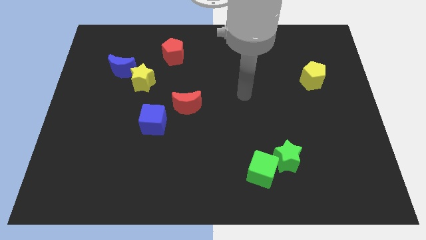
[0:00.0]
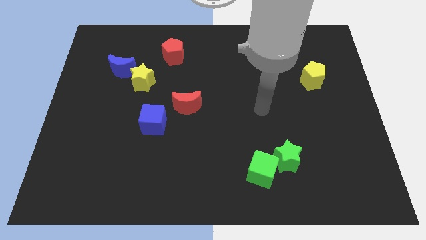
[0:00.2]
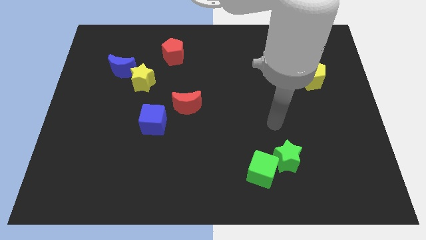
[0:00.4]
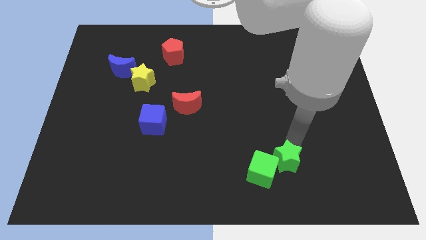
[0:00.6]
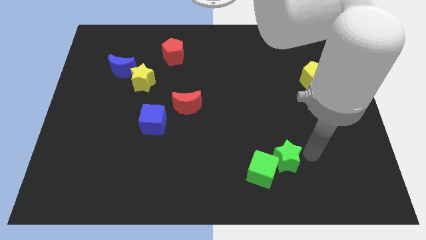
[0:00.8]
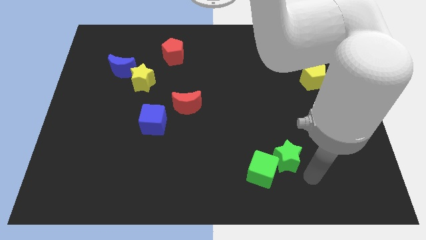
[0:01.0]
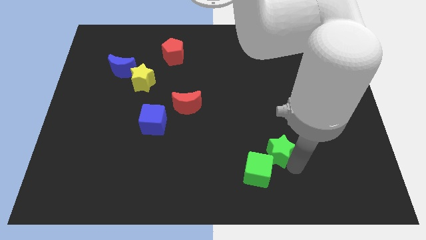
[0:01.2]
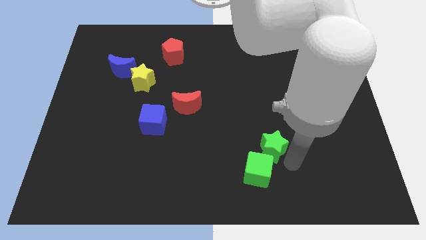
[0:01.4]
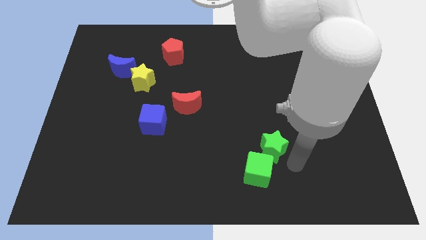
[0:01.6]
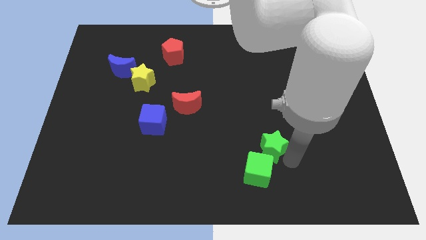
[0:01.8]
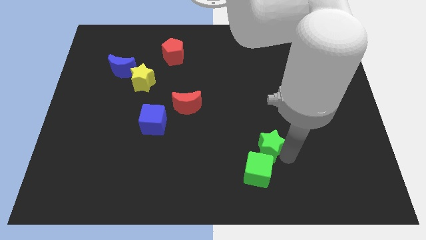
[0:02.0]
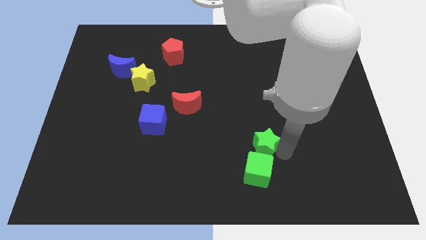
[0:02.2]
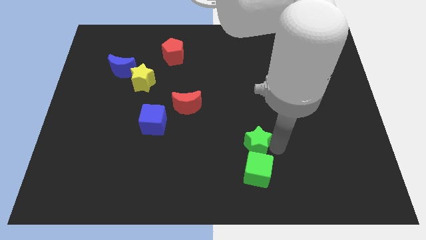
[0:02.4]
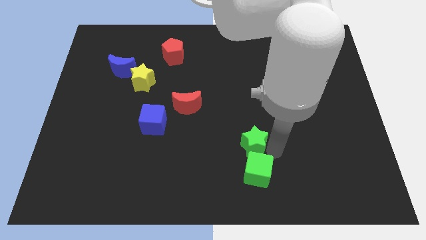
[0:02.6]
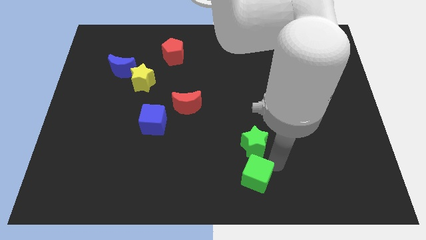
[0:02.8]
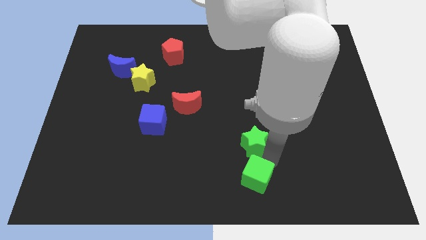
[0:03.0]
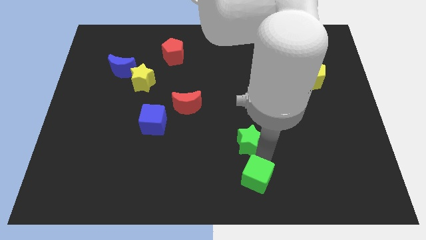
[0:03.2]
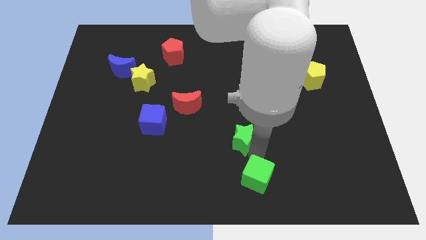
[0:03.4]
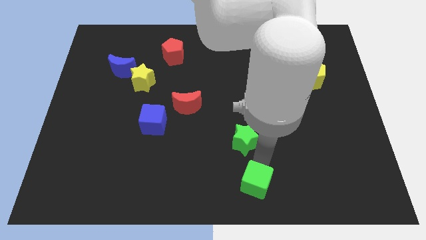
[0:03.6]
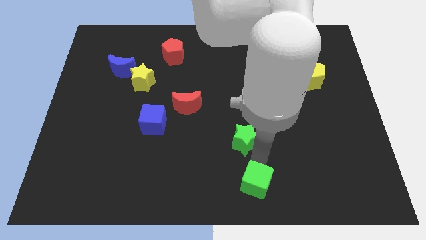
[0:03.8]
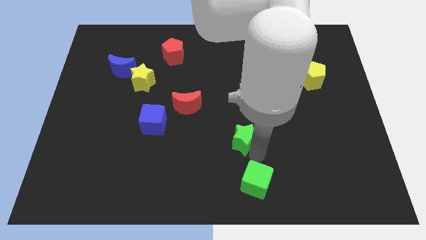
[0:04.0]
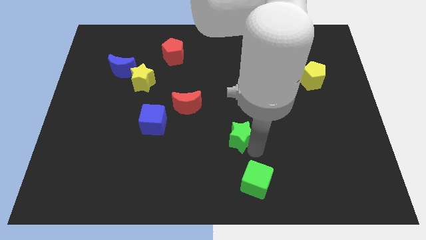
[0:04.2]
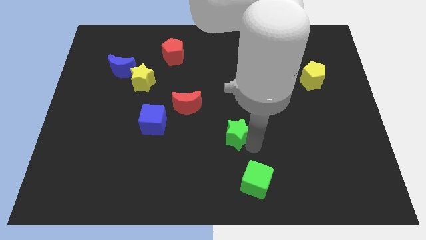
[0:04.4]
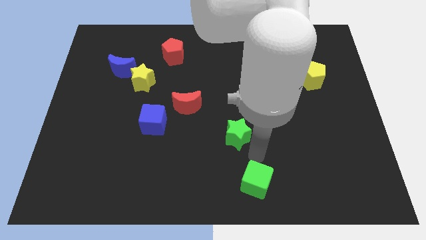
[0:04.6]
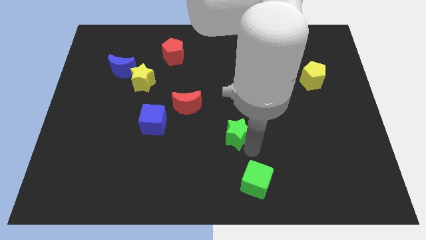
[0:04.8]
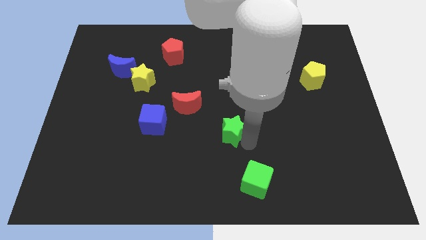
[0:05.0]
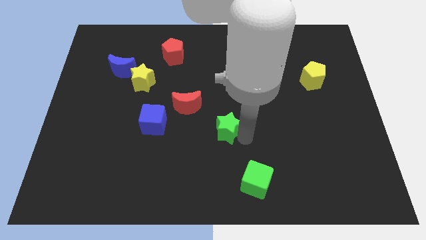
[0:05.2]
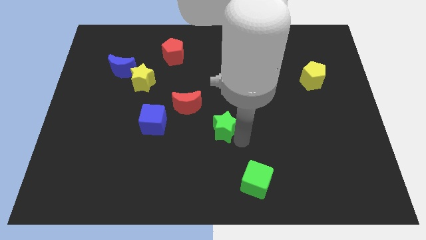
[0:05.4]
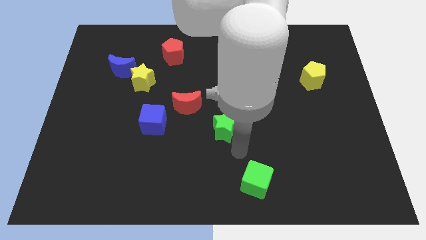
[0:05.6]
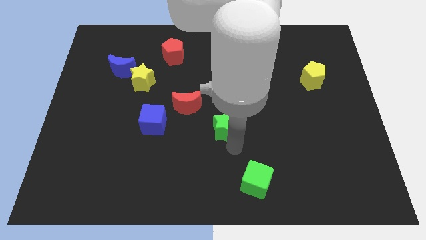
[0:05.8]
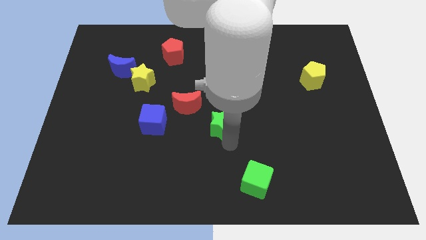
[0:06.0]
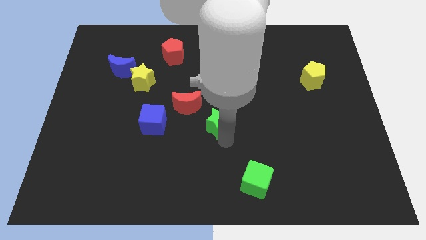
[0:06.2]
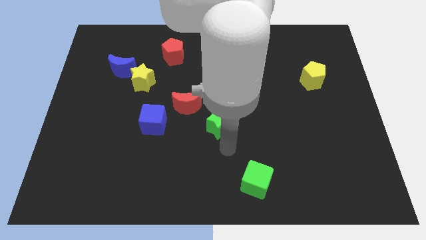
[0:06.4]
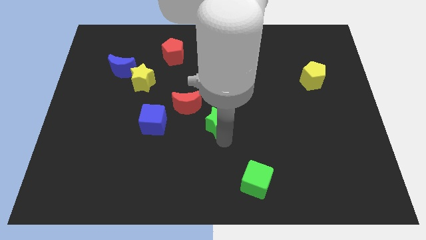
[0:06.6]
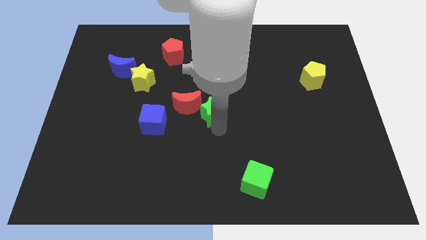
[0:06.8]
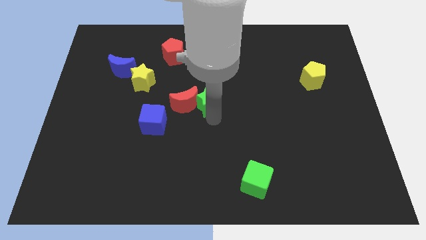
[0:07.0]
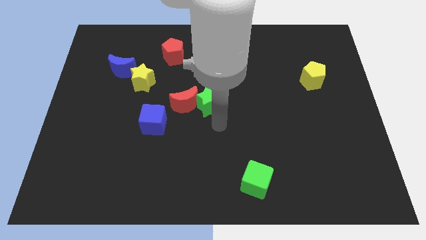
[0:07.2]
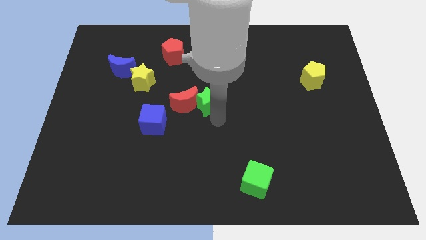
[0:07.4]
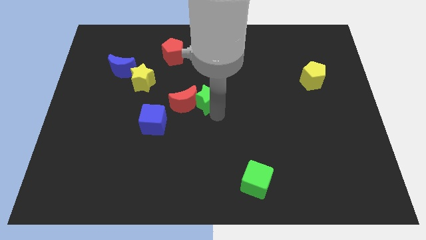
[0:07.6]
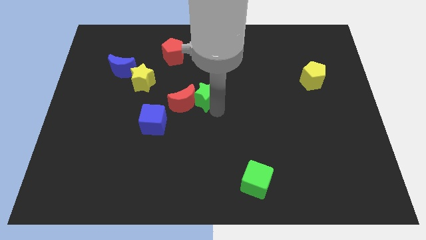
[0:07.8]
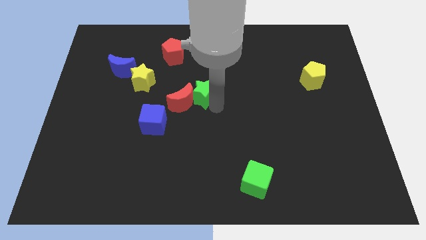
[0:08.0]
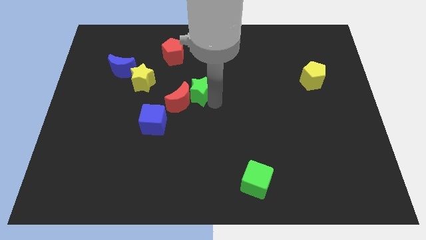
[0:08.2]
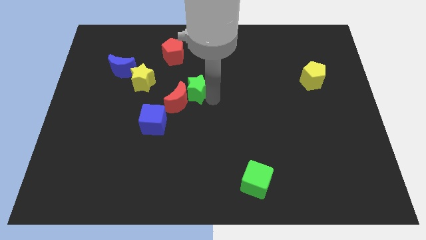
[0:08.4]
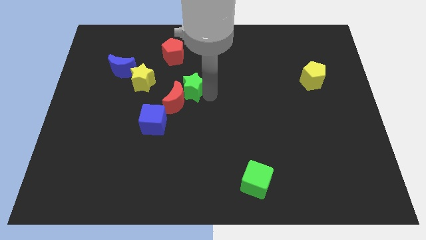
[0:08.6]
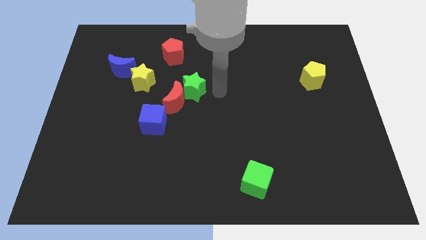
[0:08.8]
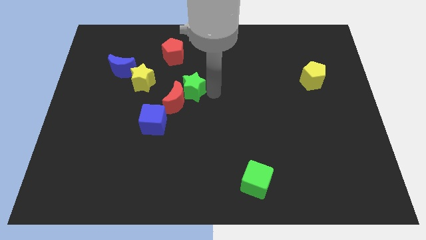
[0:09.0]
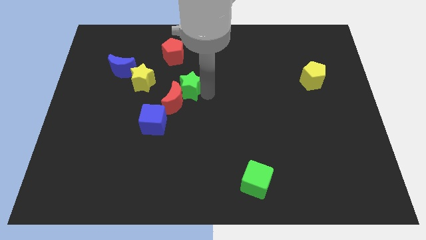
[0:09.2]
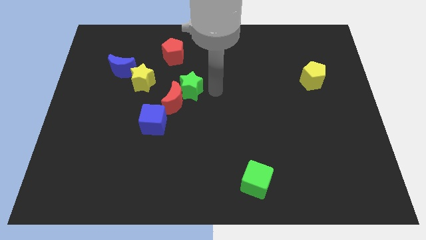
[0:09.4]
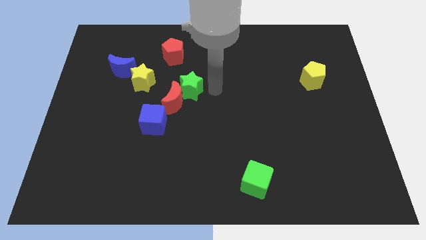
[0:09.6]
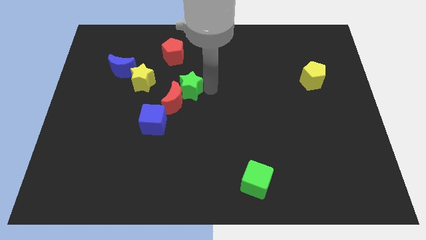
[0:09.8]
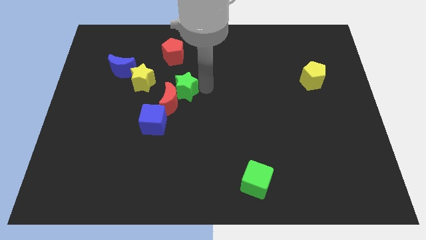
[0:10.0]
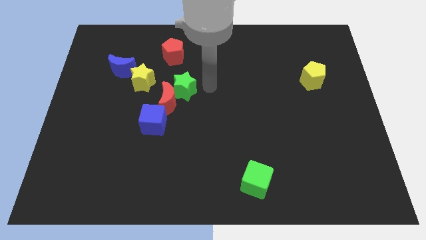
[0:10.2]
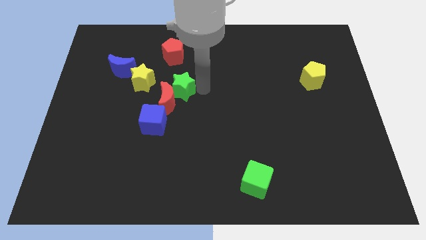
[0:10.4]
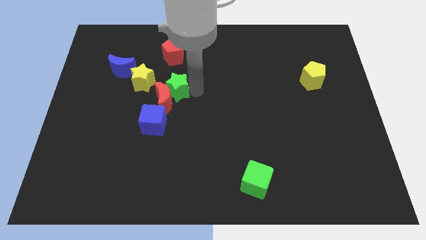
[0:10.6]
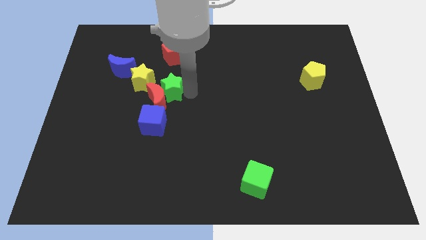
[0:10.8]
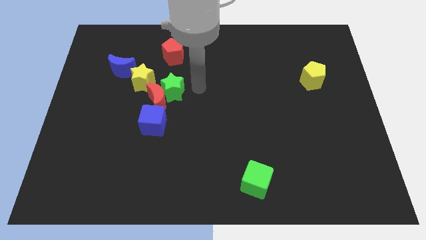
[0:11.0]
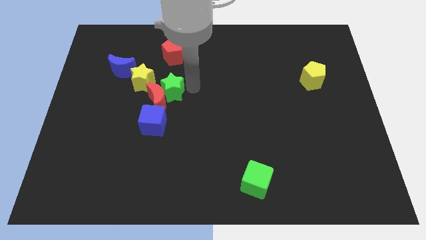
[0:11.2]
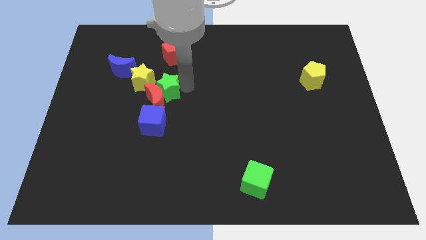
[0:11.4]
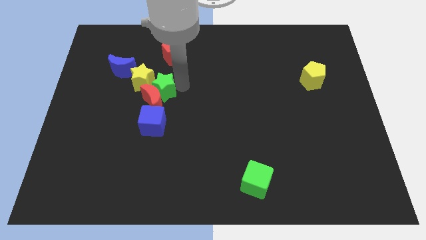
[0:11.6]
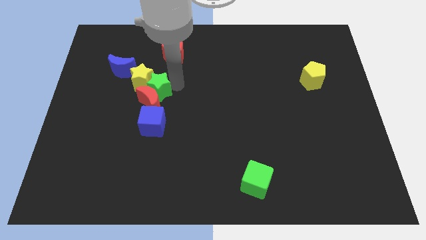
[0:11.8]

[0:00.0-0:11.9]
move the green star diagonally down and to the right of the blue moon

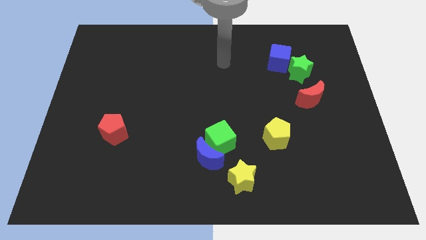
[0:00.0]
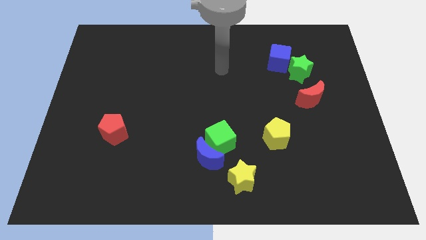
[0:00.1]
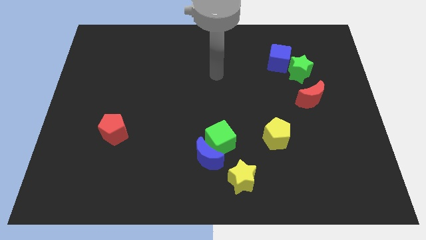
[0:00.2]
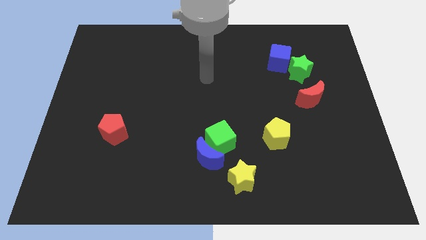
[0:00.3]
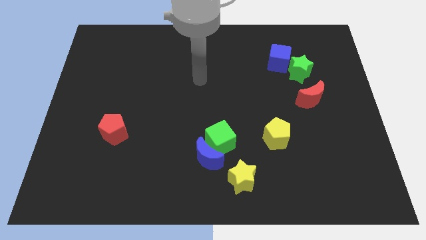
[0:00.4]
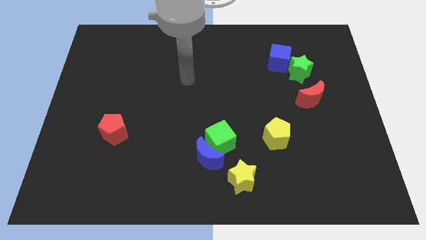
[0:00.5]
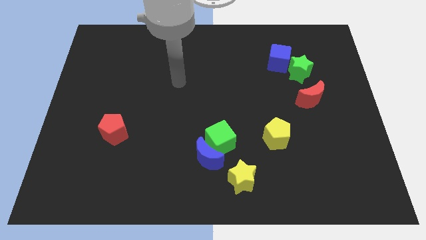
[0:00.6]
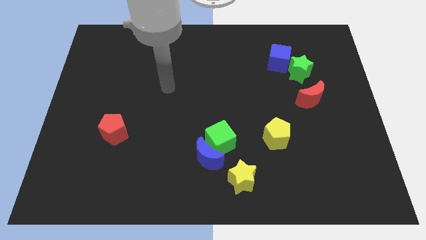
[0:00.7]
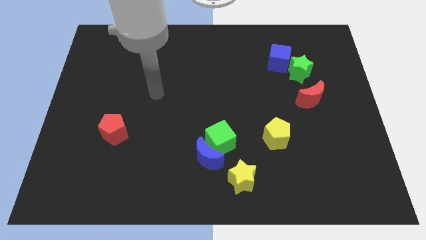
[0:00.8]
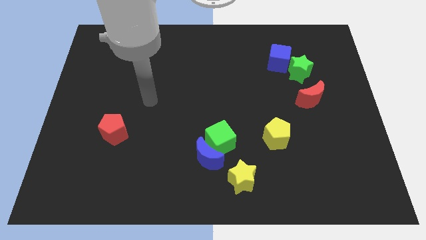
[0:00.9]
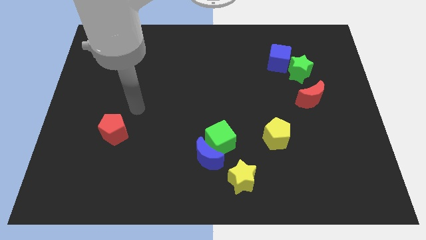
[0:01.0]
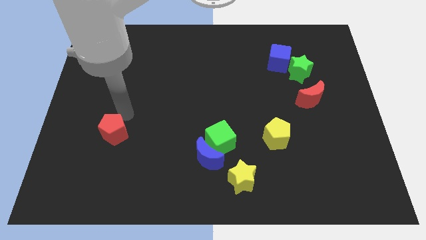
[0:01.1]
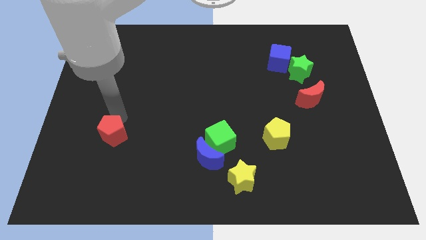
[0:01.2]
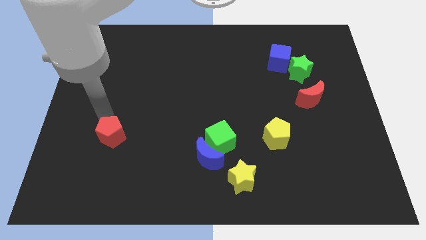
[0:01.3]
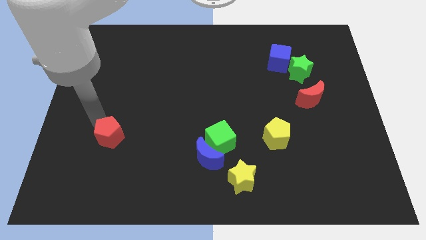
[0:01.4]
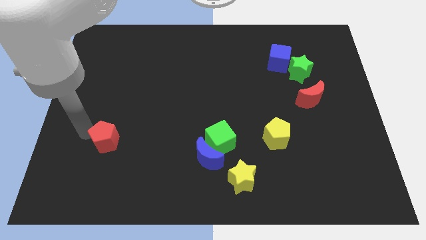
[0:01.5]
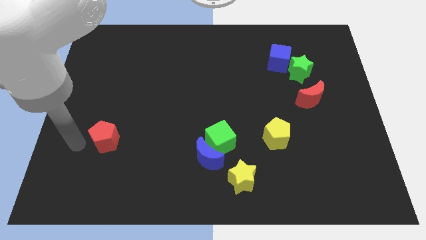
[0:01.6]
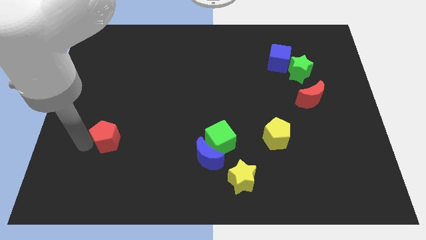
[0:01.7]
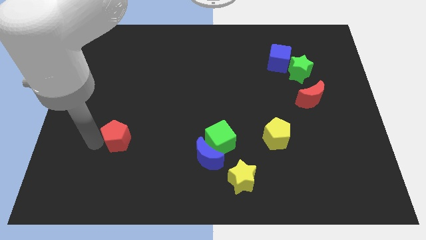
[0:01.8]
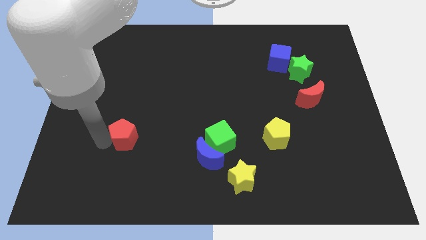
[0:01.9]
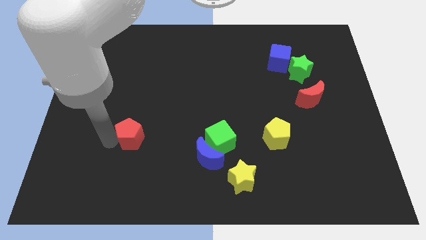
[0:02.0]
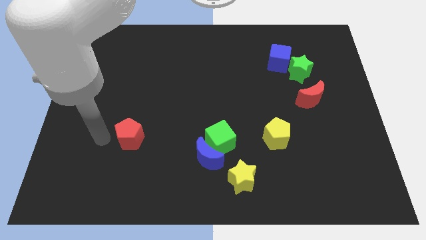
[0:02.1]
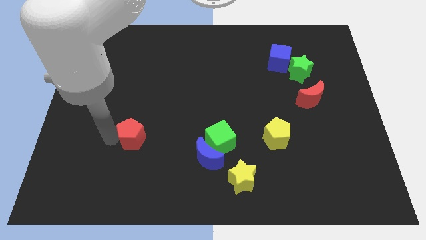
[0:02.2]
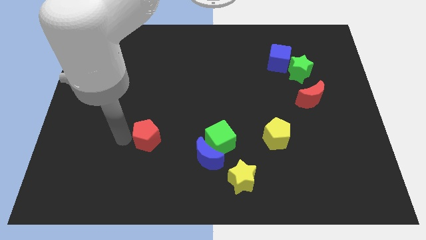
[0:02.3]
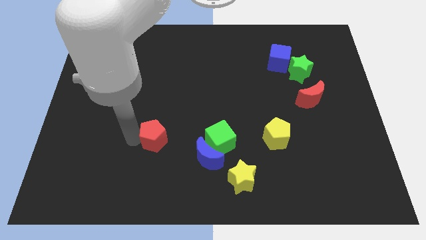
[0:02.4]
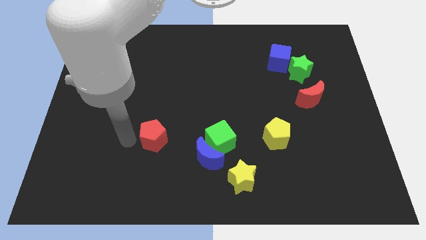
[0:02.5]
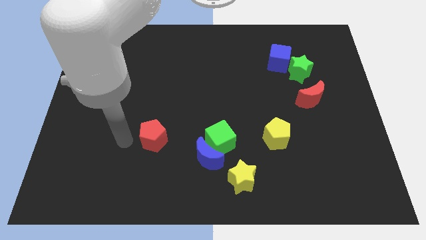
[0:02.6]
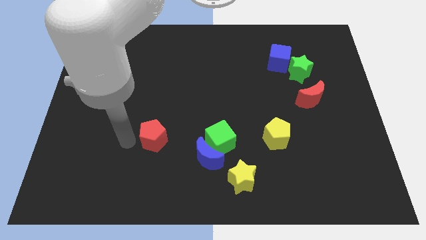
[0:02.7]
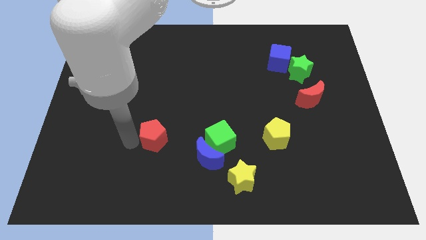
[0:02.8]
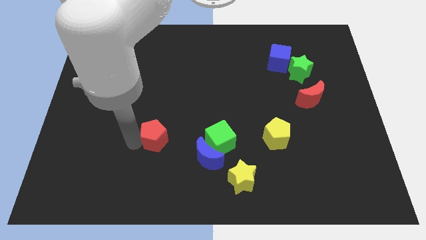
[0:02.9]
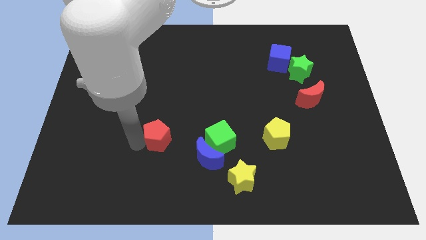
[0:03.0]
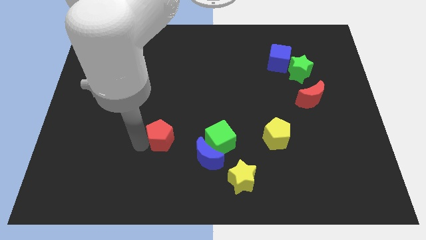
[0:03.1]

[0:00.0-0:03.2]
slide the red pentagon to the top left side of the blue moon
